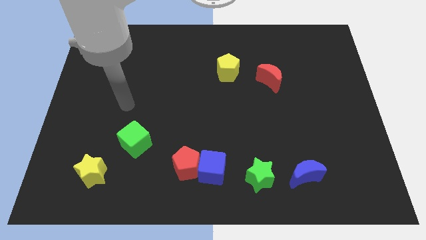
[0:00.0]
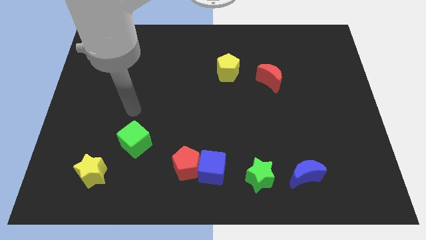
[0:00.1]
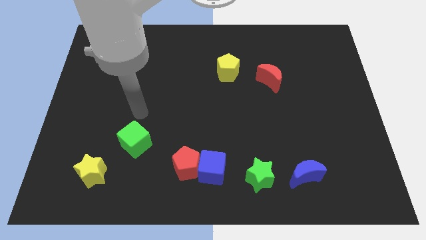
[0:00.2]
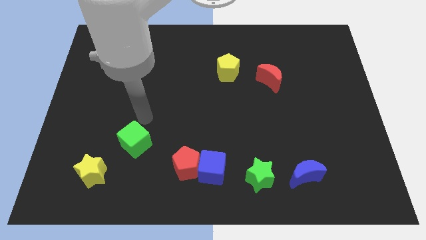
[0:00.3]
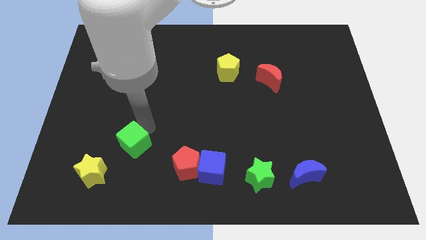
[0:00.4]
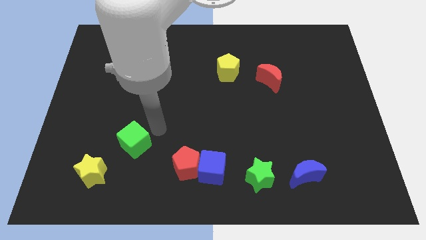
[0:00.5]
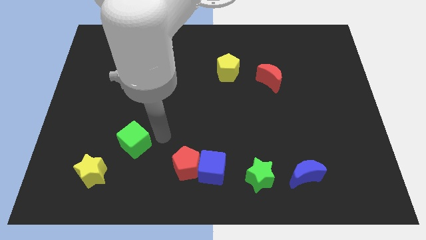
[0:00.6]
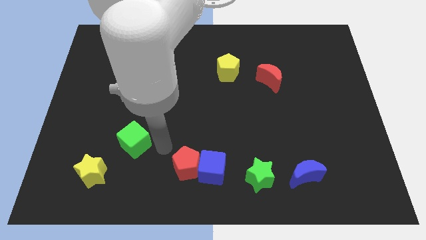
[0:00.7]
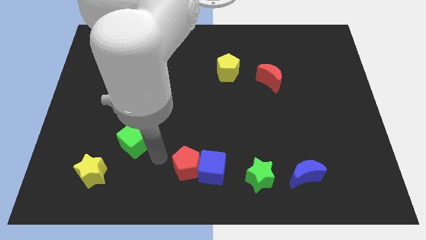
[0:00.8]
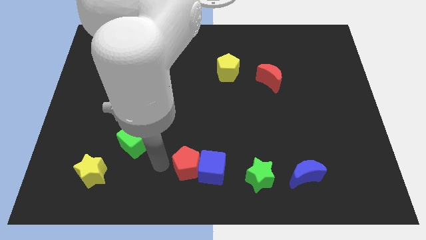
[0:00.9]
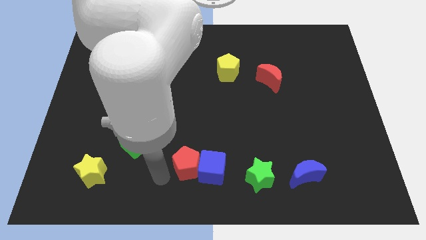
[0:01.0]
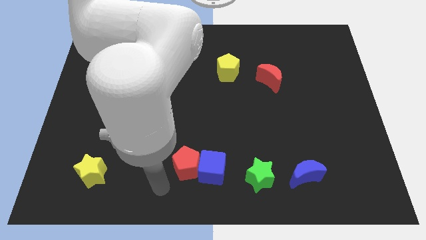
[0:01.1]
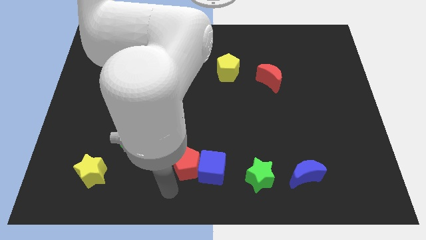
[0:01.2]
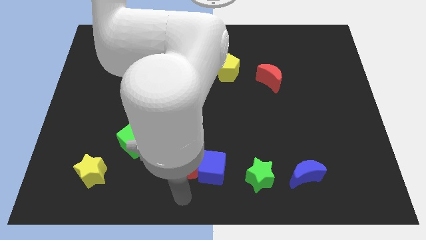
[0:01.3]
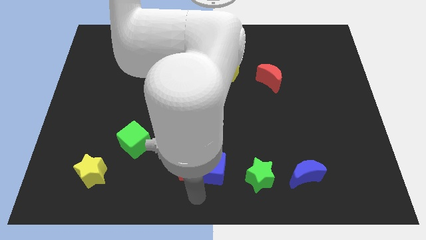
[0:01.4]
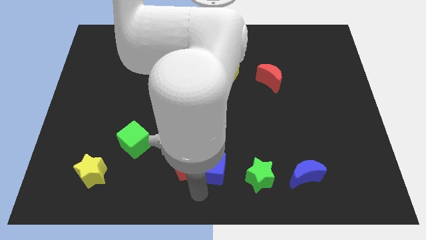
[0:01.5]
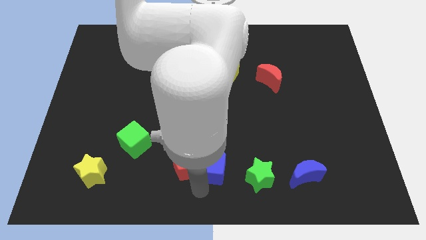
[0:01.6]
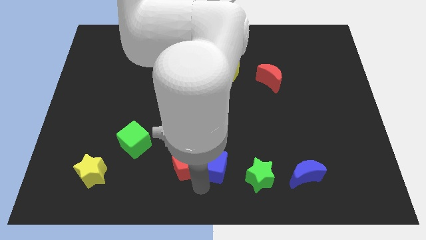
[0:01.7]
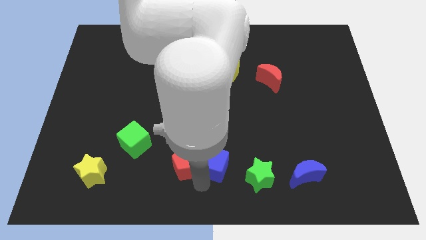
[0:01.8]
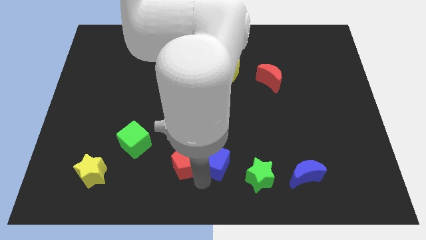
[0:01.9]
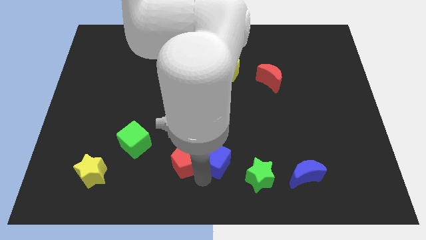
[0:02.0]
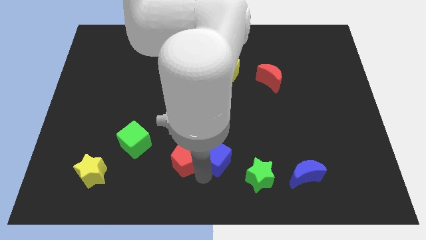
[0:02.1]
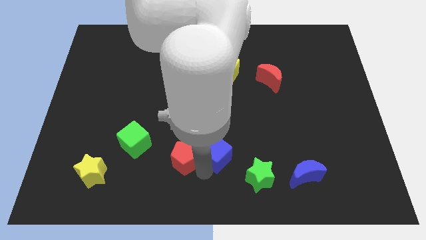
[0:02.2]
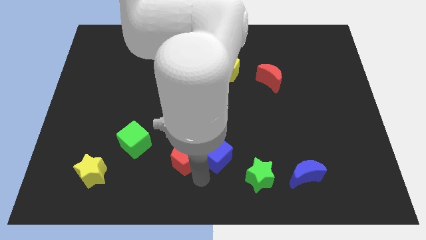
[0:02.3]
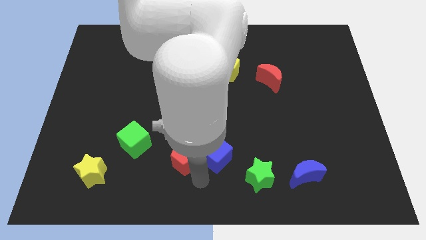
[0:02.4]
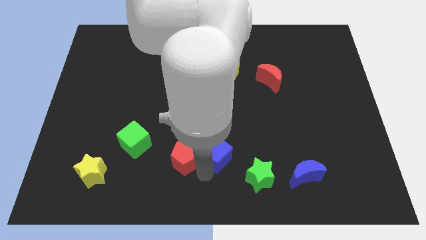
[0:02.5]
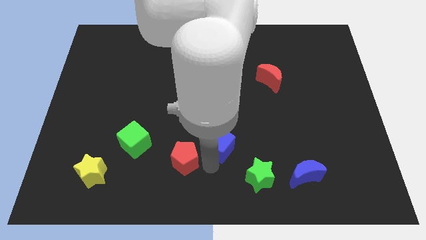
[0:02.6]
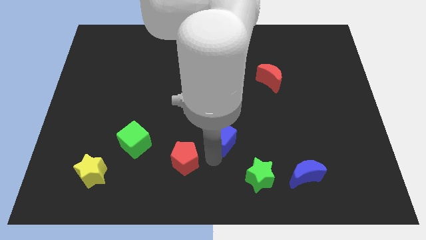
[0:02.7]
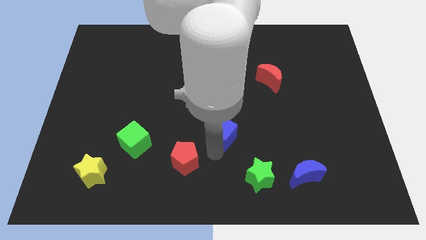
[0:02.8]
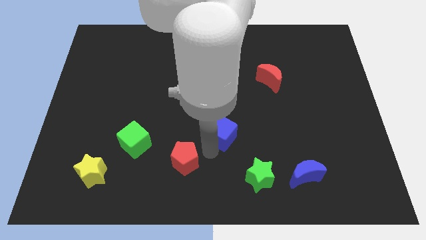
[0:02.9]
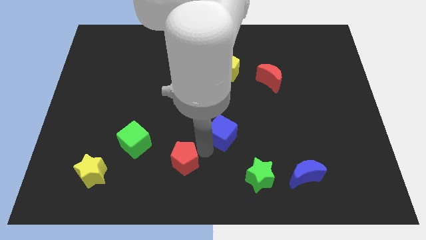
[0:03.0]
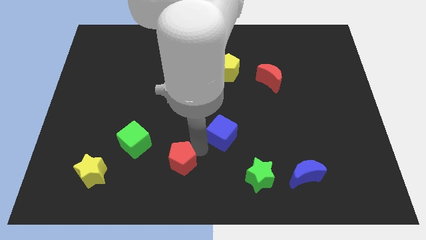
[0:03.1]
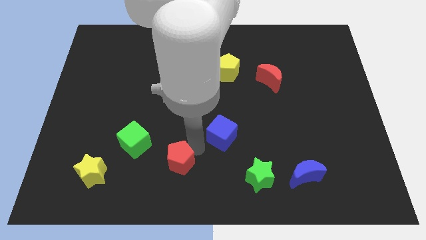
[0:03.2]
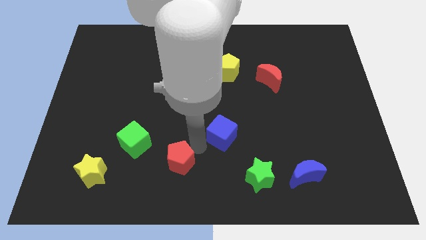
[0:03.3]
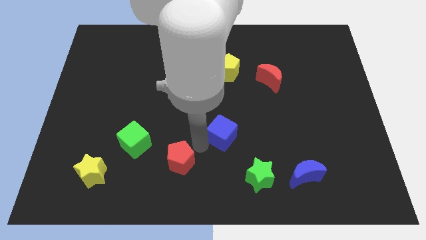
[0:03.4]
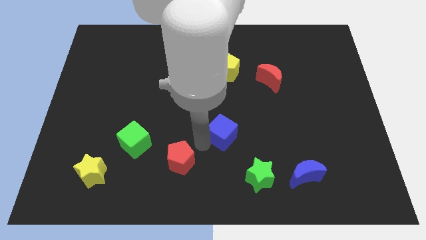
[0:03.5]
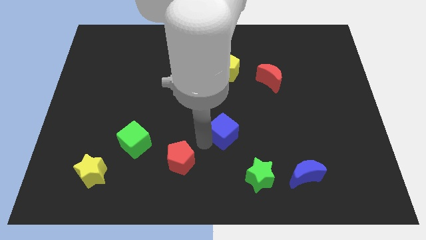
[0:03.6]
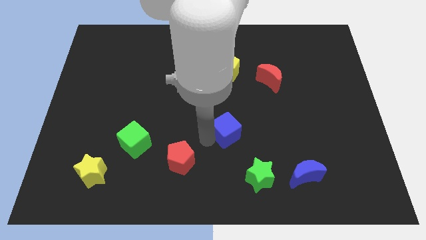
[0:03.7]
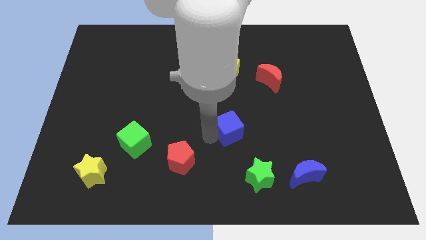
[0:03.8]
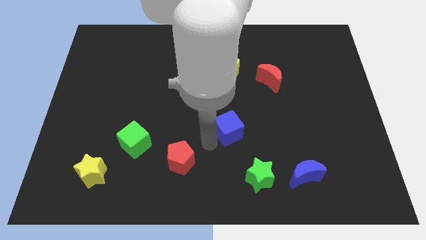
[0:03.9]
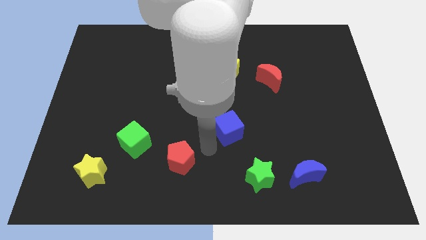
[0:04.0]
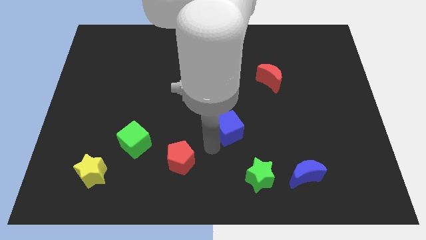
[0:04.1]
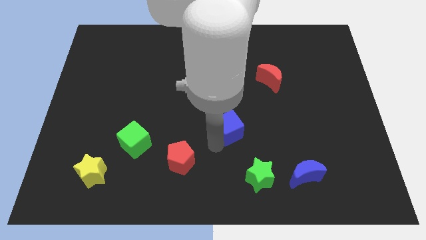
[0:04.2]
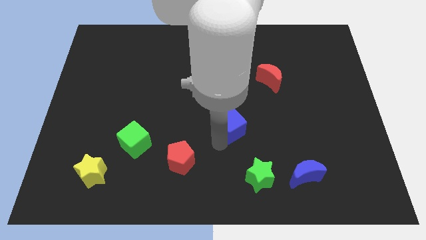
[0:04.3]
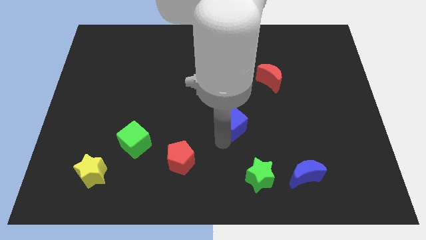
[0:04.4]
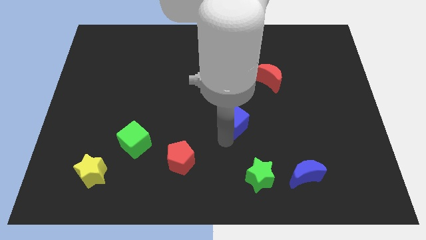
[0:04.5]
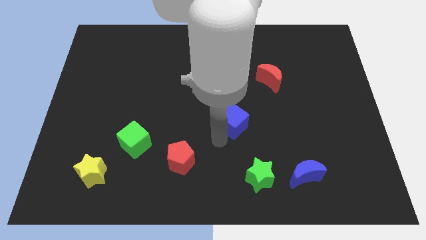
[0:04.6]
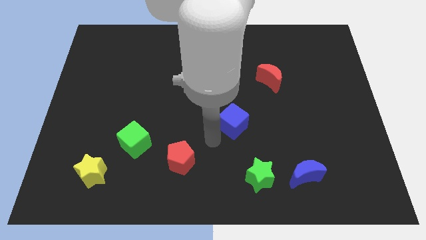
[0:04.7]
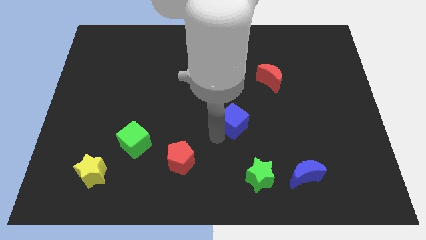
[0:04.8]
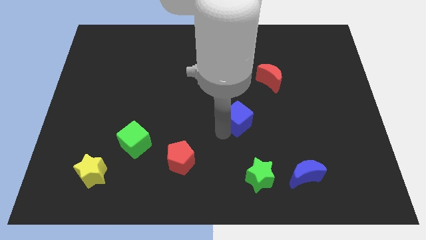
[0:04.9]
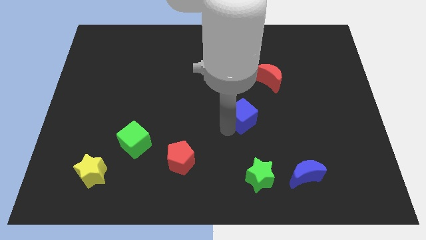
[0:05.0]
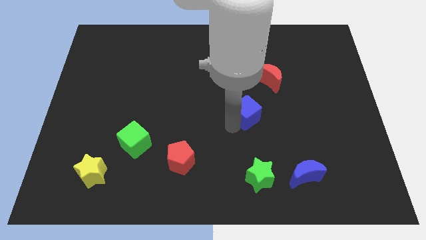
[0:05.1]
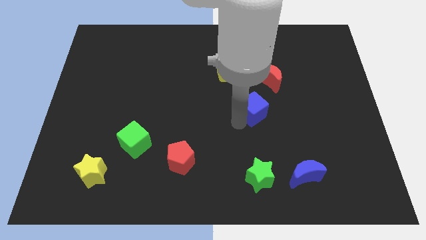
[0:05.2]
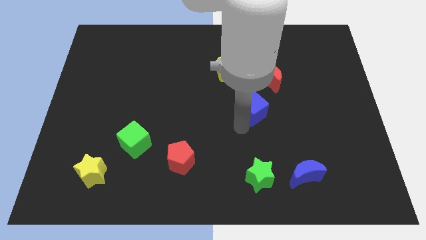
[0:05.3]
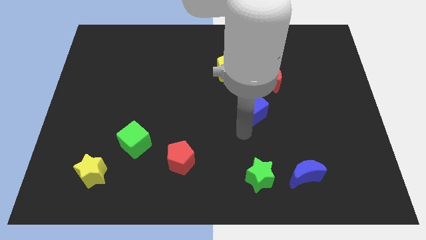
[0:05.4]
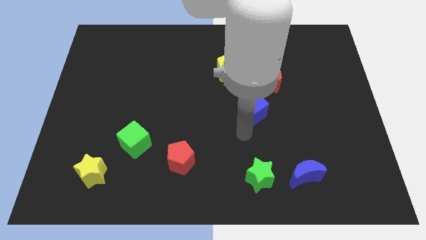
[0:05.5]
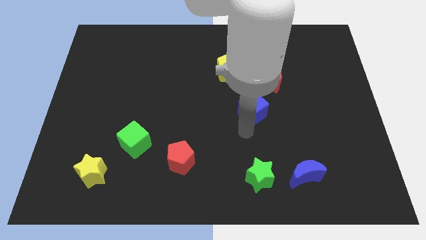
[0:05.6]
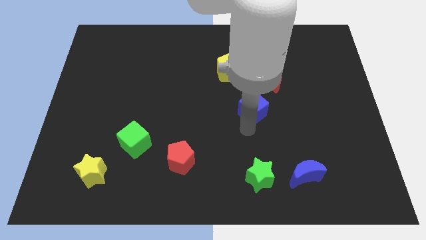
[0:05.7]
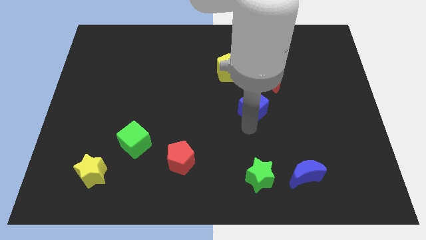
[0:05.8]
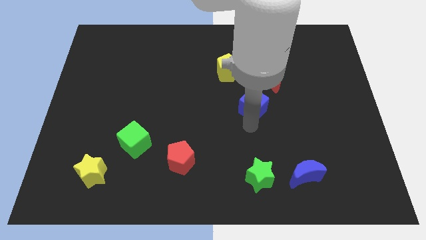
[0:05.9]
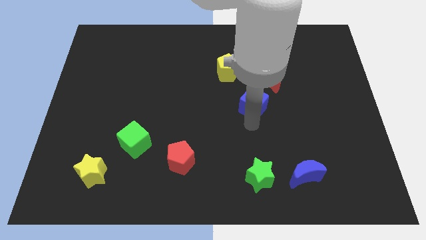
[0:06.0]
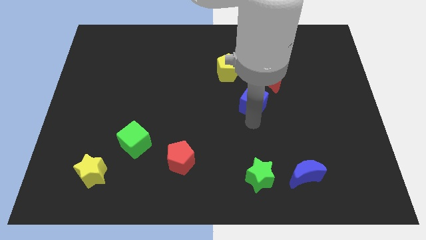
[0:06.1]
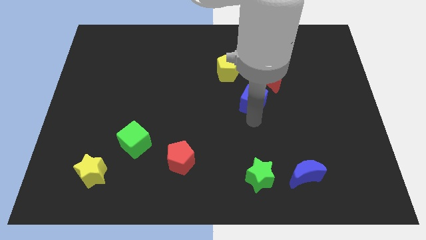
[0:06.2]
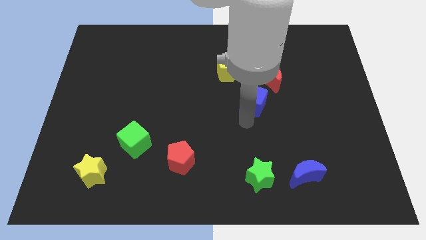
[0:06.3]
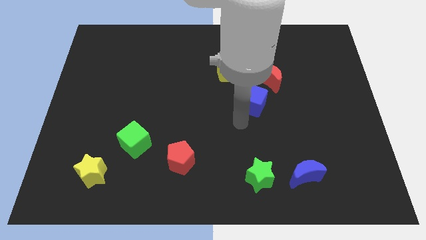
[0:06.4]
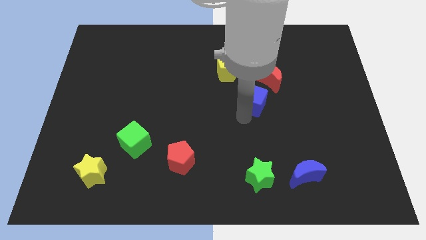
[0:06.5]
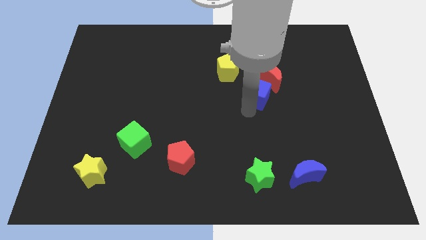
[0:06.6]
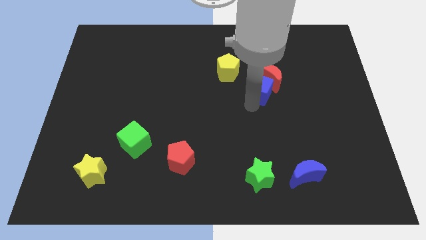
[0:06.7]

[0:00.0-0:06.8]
move the blue cube close to the red moon

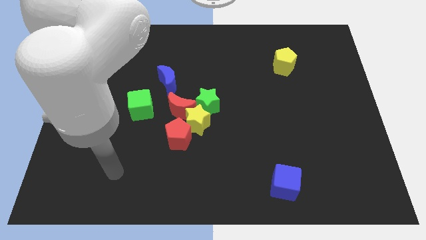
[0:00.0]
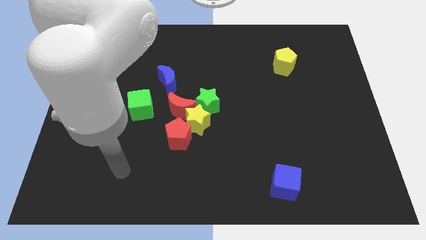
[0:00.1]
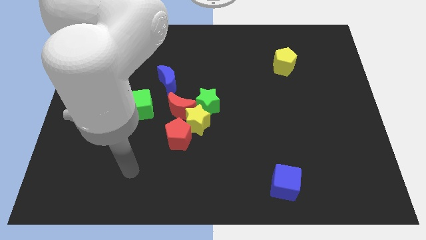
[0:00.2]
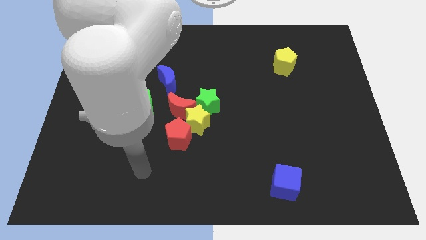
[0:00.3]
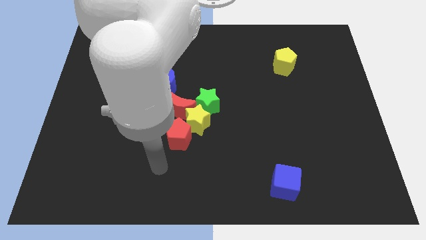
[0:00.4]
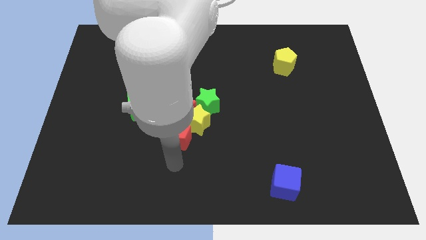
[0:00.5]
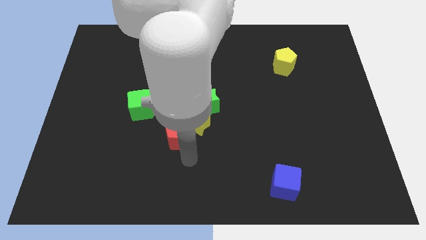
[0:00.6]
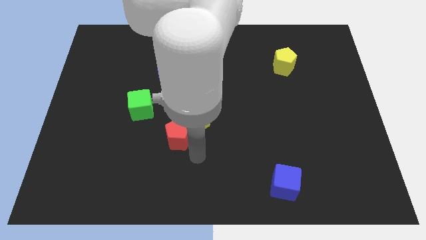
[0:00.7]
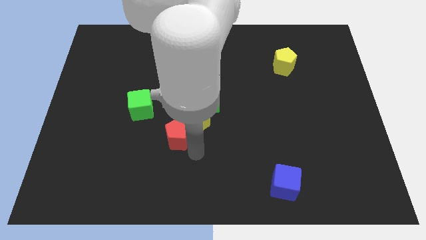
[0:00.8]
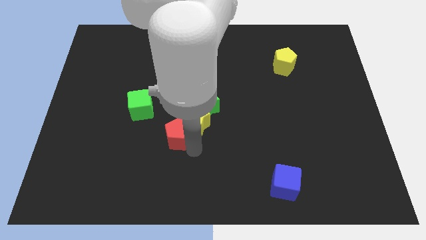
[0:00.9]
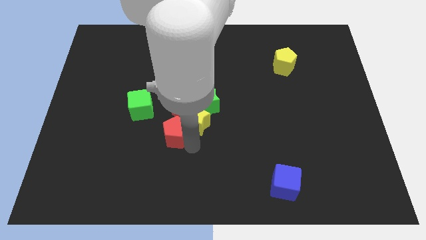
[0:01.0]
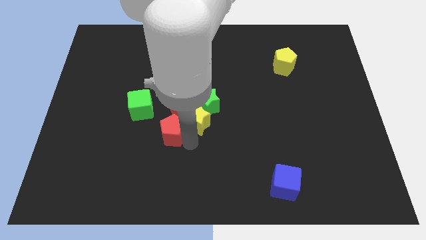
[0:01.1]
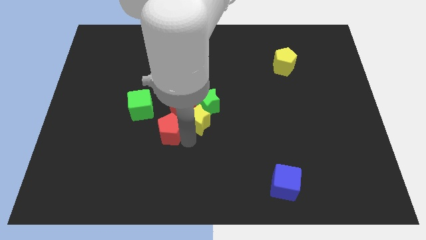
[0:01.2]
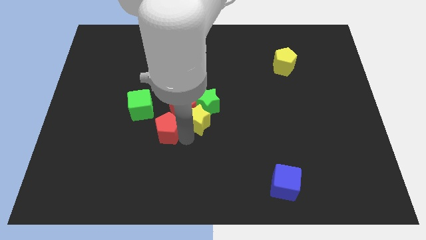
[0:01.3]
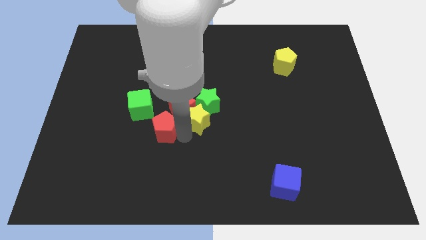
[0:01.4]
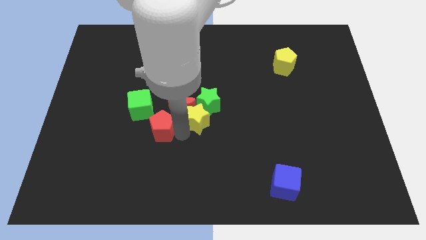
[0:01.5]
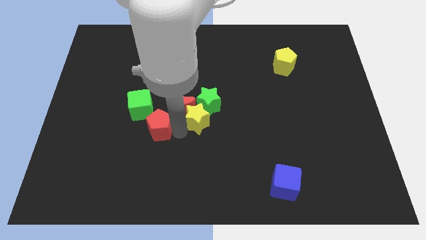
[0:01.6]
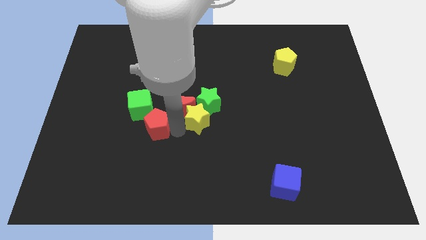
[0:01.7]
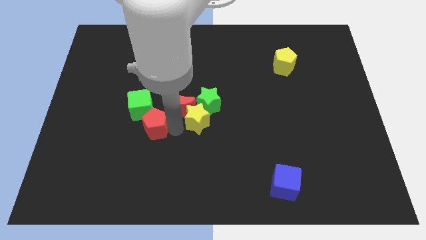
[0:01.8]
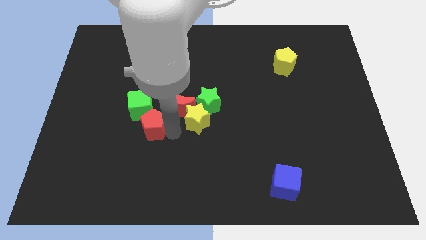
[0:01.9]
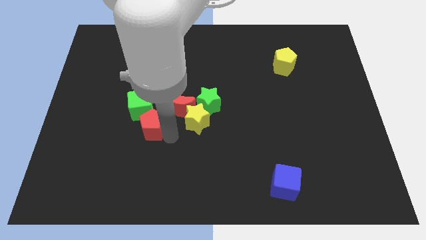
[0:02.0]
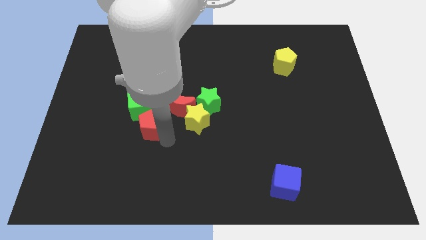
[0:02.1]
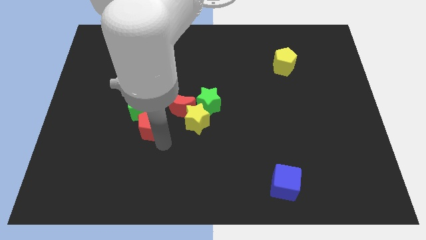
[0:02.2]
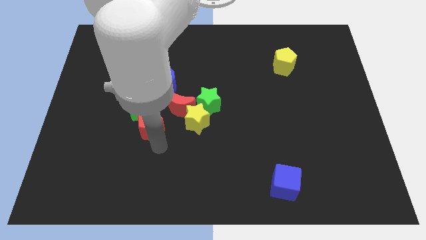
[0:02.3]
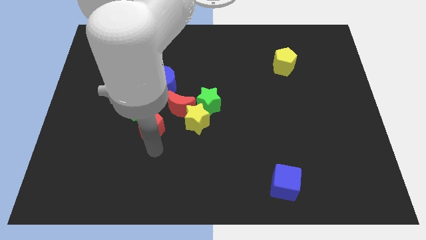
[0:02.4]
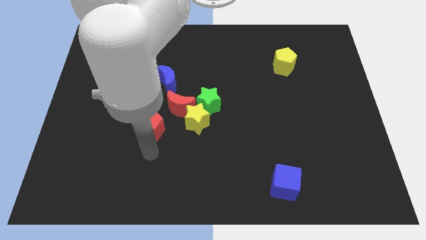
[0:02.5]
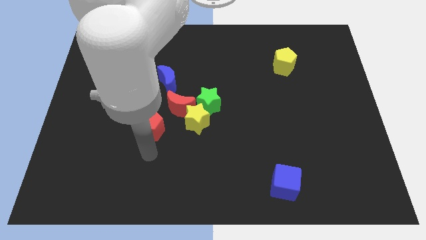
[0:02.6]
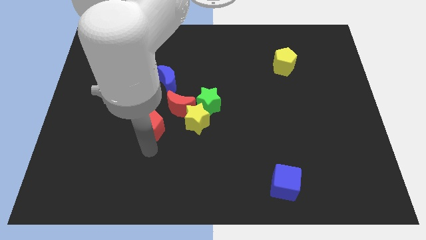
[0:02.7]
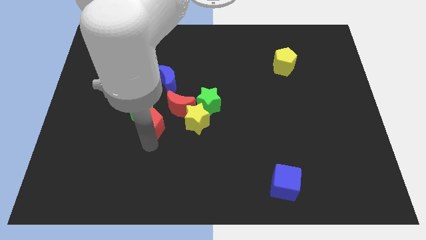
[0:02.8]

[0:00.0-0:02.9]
move the red pentagon to the green cube
